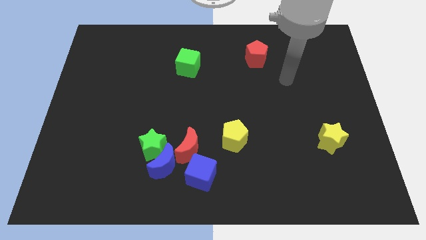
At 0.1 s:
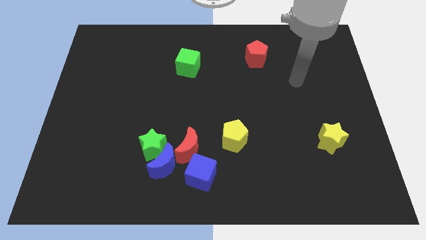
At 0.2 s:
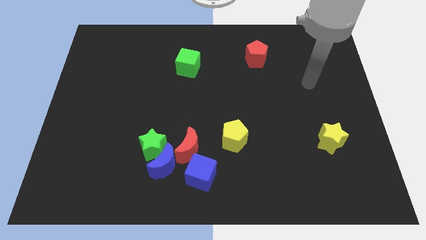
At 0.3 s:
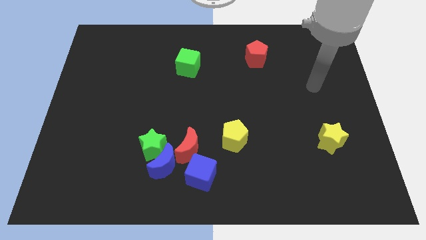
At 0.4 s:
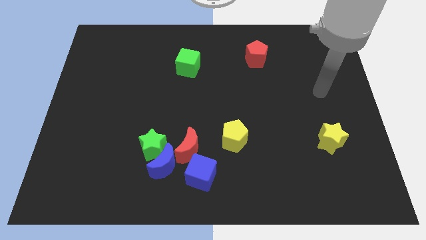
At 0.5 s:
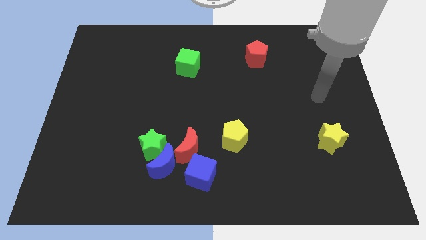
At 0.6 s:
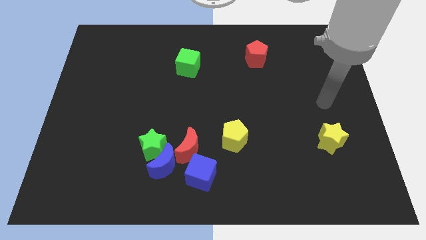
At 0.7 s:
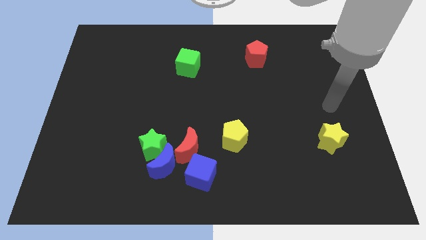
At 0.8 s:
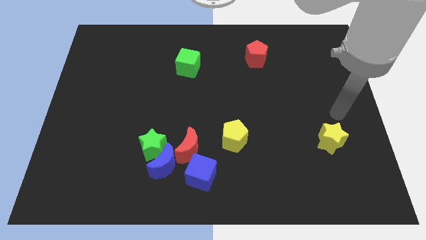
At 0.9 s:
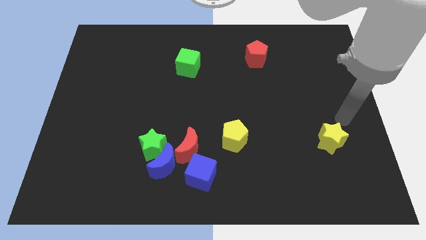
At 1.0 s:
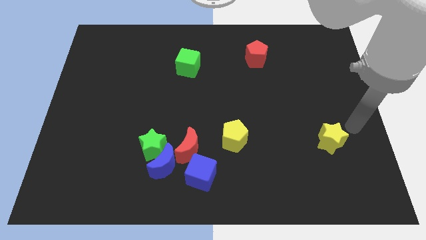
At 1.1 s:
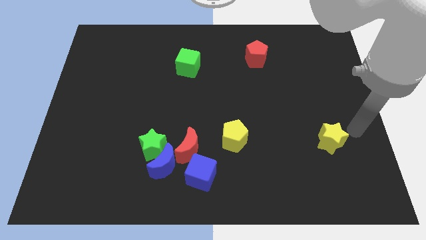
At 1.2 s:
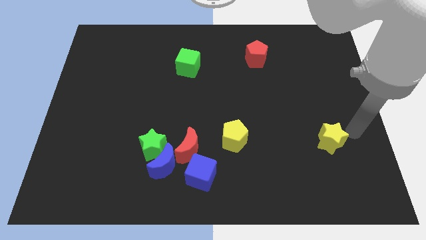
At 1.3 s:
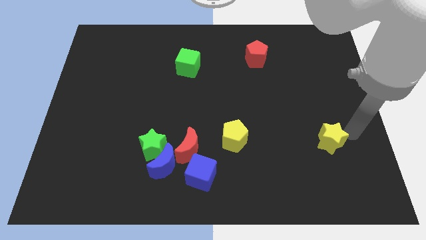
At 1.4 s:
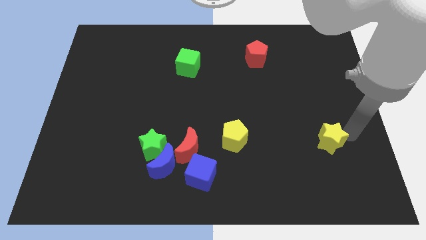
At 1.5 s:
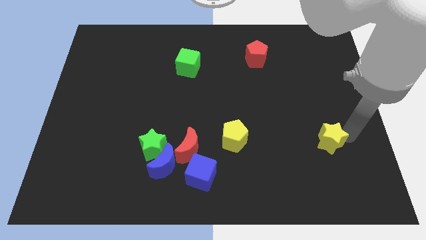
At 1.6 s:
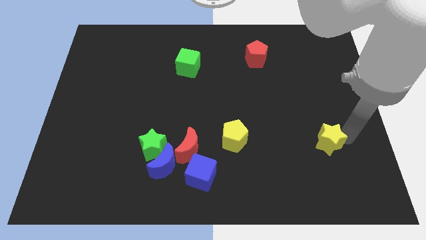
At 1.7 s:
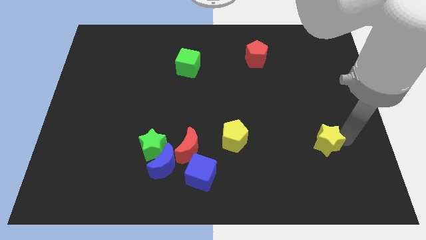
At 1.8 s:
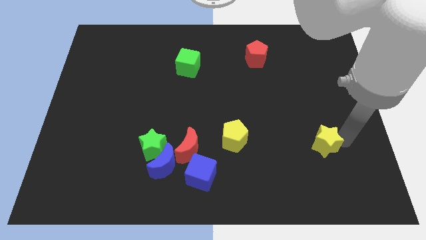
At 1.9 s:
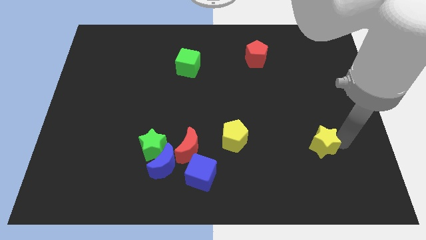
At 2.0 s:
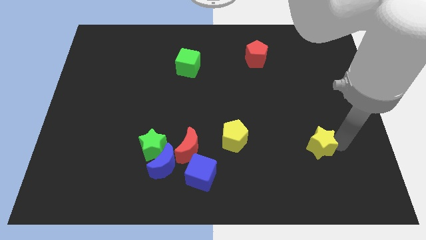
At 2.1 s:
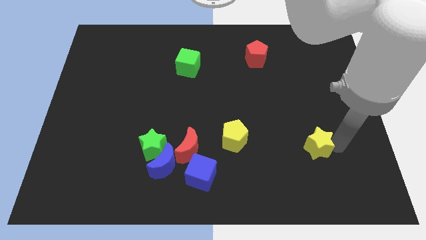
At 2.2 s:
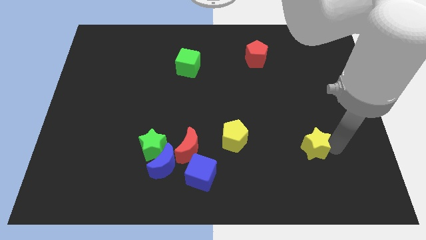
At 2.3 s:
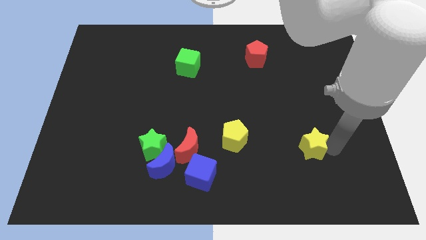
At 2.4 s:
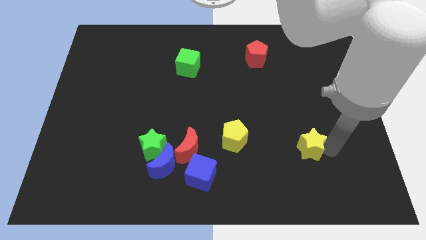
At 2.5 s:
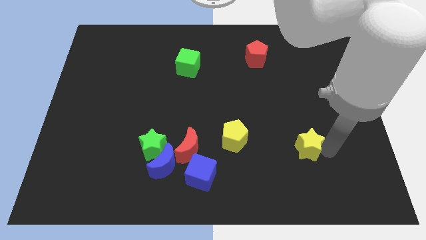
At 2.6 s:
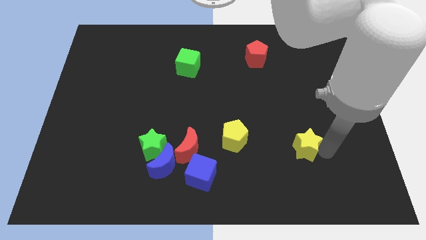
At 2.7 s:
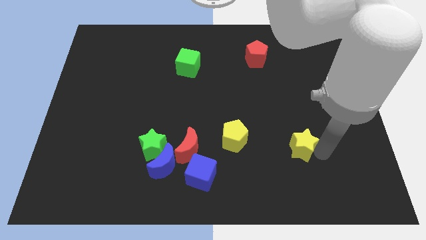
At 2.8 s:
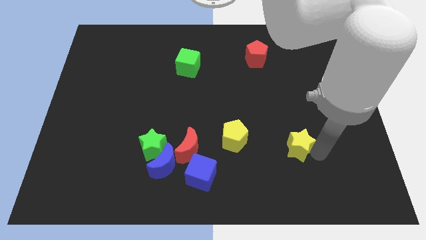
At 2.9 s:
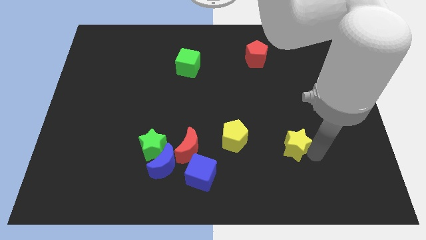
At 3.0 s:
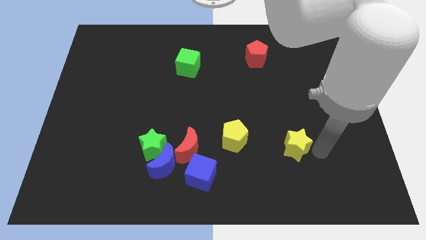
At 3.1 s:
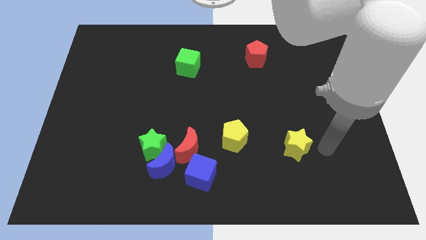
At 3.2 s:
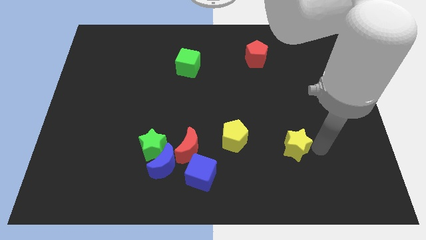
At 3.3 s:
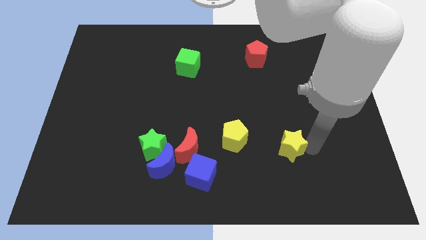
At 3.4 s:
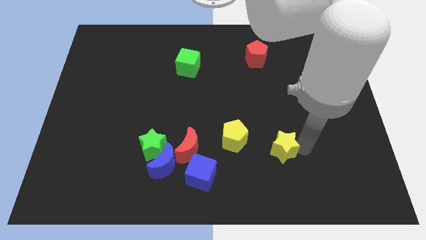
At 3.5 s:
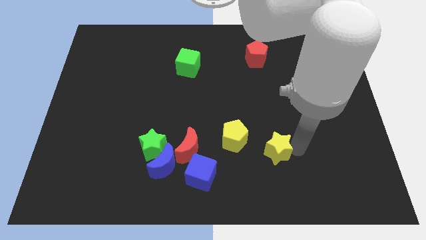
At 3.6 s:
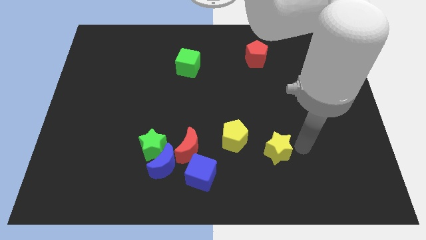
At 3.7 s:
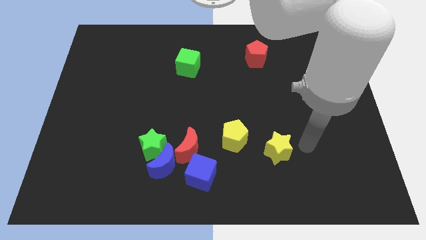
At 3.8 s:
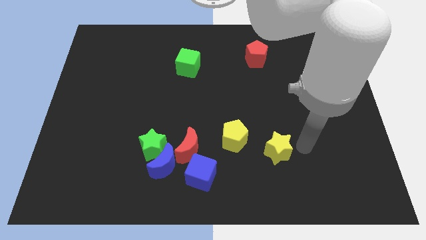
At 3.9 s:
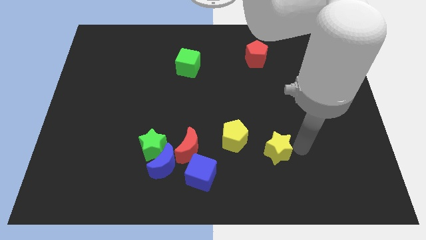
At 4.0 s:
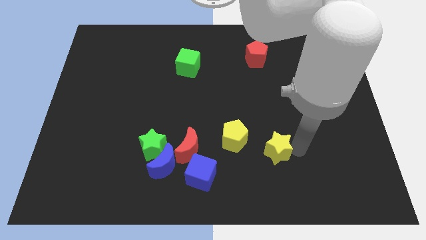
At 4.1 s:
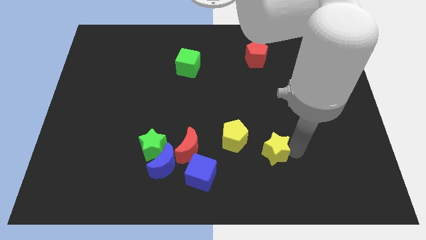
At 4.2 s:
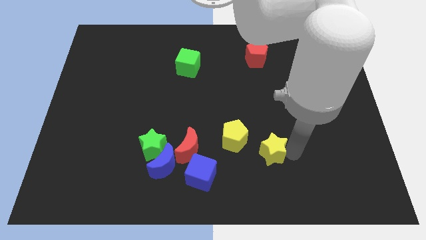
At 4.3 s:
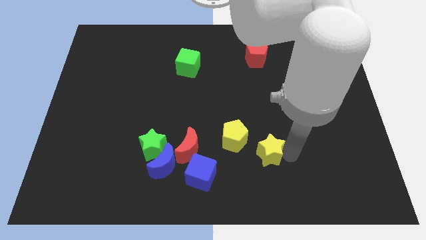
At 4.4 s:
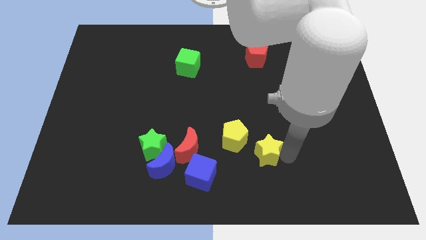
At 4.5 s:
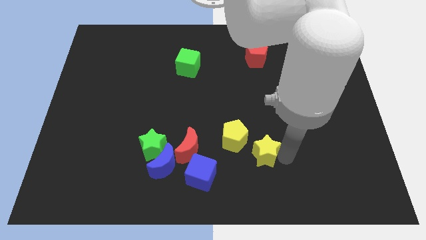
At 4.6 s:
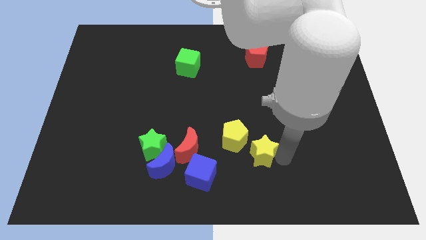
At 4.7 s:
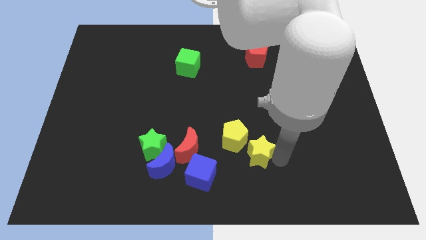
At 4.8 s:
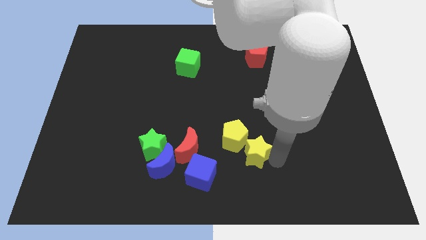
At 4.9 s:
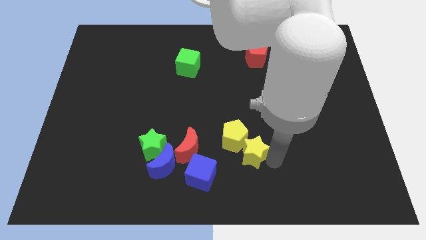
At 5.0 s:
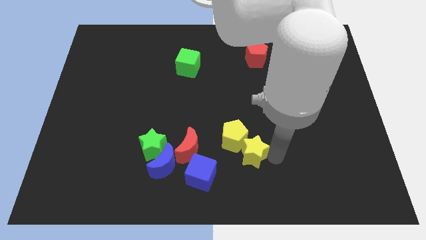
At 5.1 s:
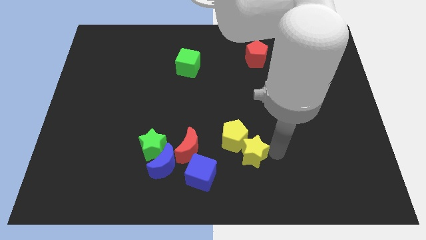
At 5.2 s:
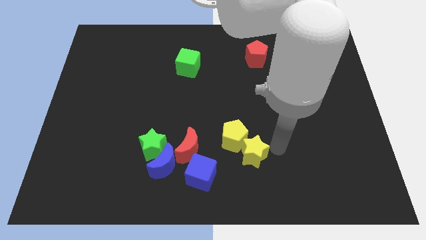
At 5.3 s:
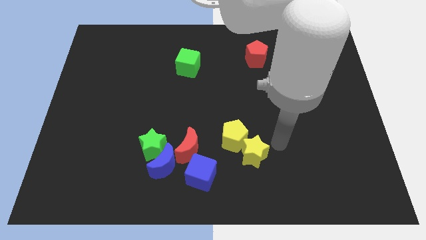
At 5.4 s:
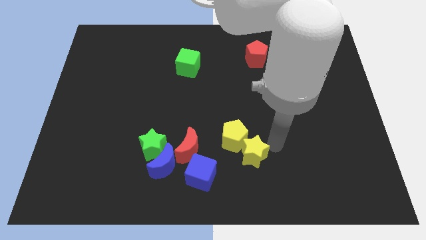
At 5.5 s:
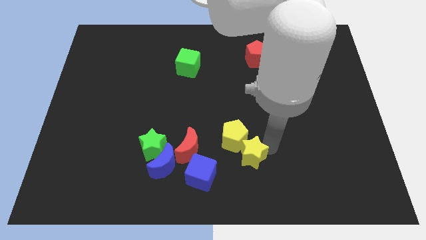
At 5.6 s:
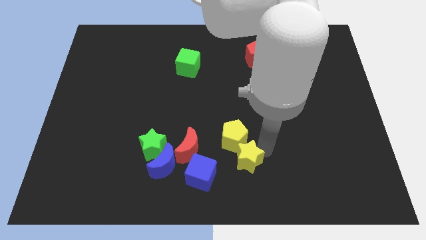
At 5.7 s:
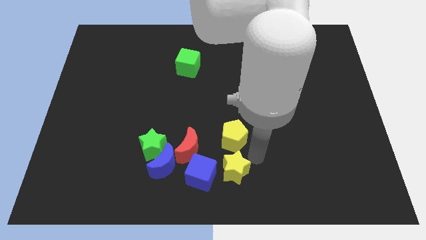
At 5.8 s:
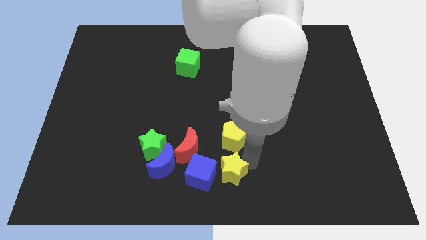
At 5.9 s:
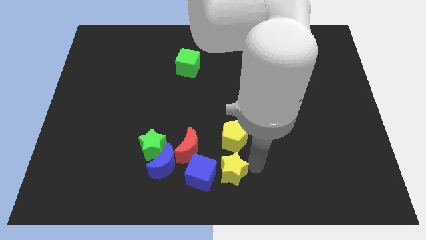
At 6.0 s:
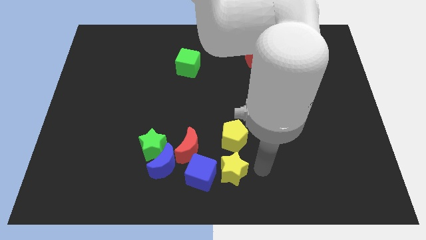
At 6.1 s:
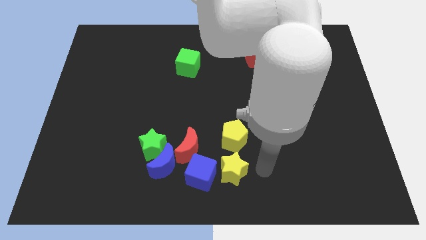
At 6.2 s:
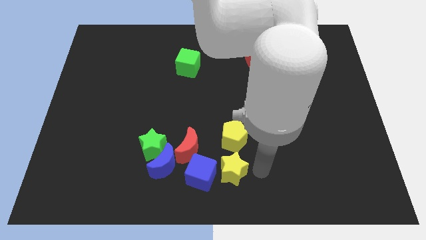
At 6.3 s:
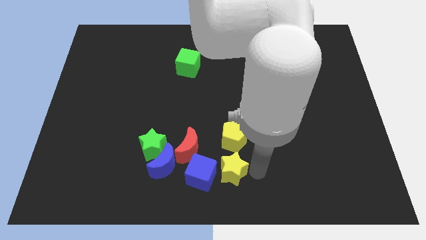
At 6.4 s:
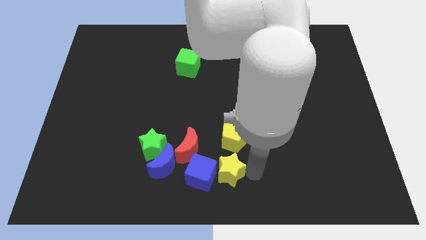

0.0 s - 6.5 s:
slide the yellow star towards the blue cube
